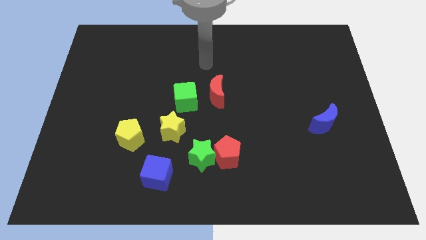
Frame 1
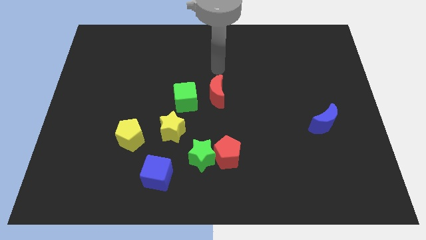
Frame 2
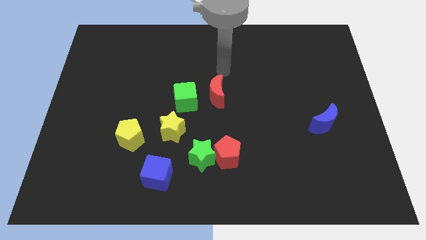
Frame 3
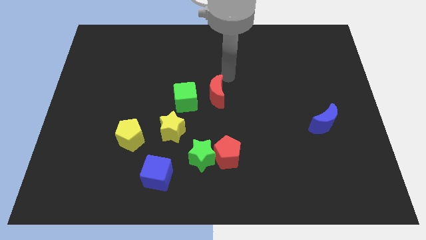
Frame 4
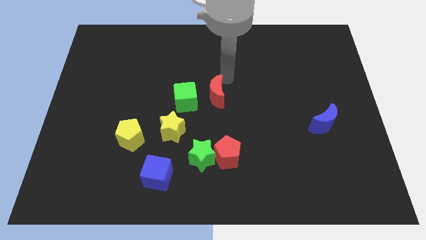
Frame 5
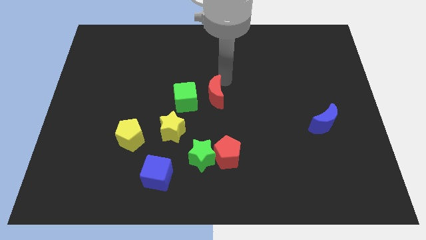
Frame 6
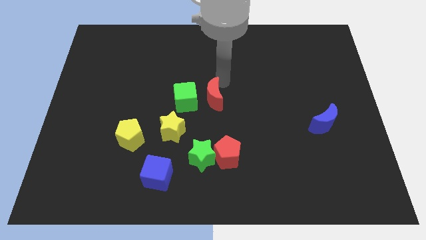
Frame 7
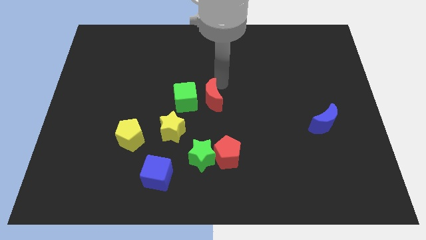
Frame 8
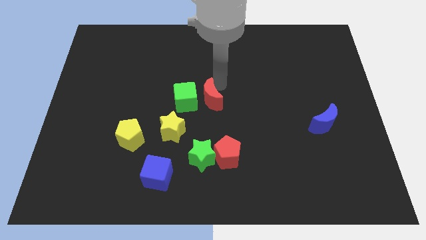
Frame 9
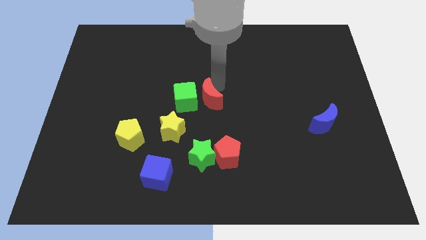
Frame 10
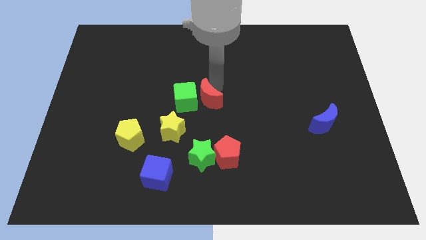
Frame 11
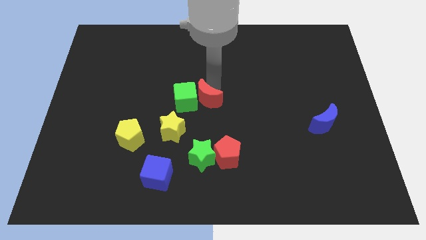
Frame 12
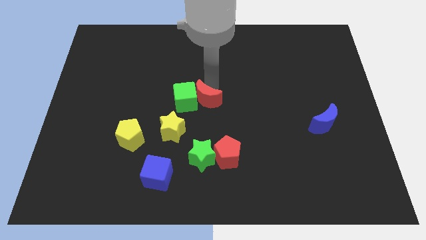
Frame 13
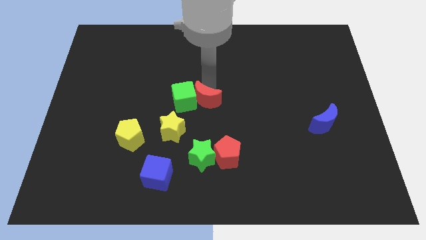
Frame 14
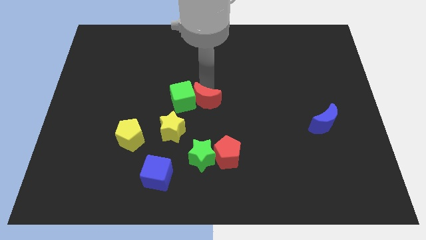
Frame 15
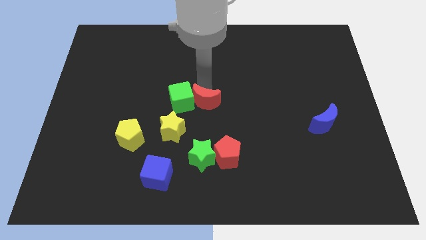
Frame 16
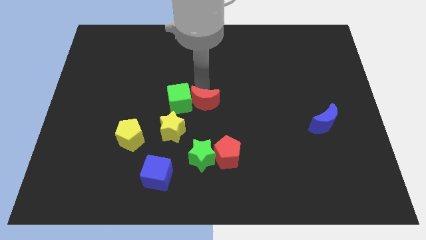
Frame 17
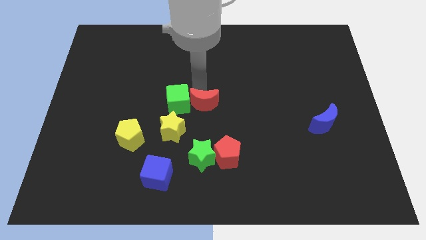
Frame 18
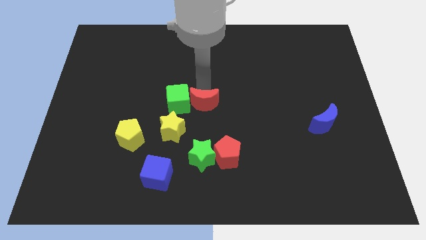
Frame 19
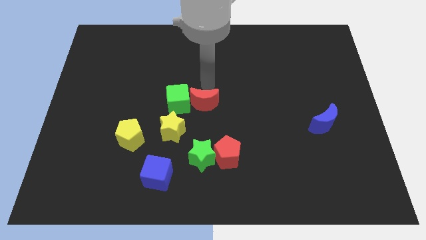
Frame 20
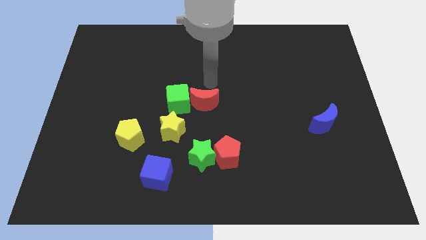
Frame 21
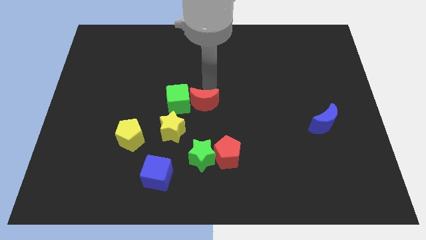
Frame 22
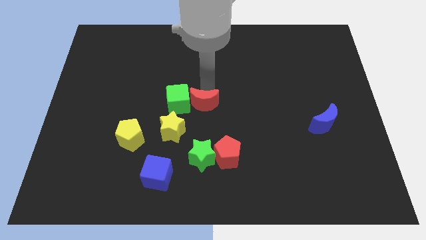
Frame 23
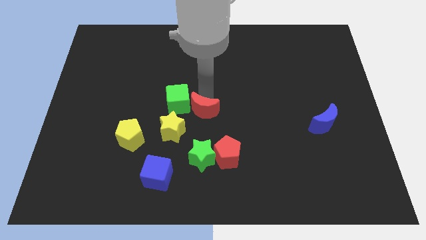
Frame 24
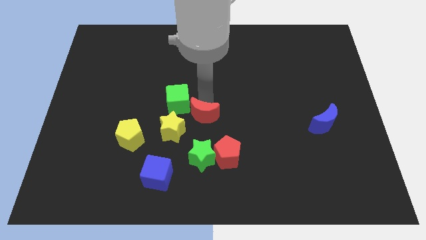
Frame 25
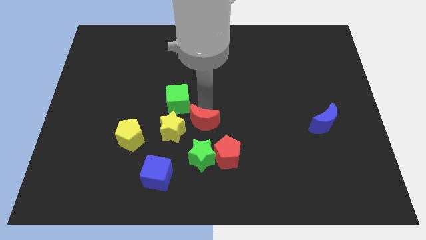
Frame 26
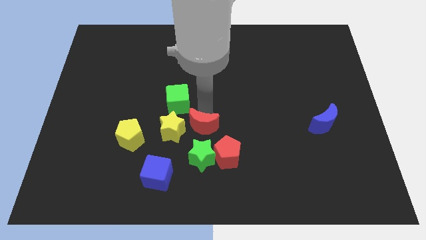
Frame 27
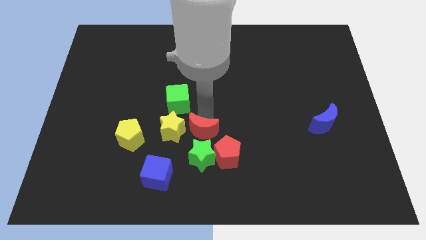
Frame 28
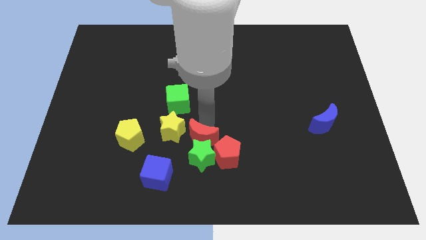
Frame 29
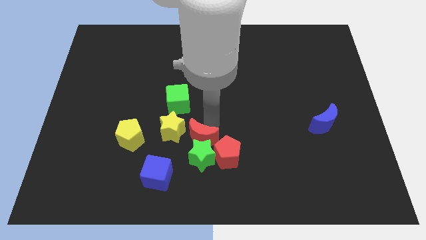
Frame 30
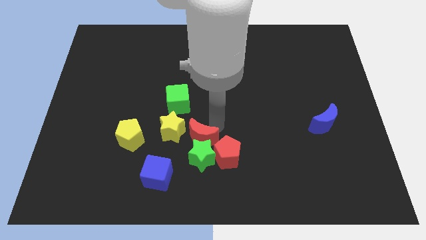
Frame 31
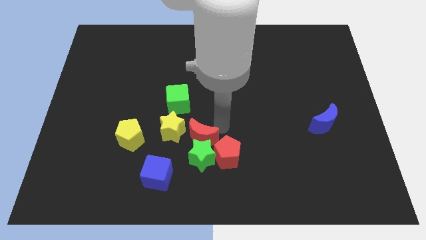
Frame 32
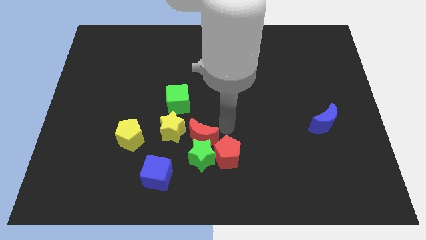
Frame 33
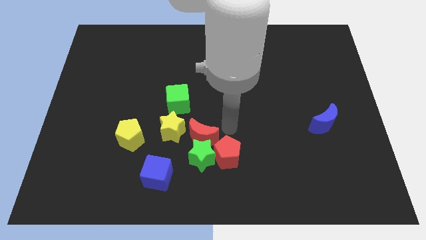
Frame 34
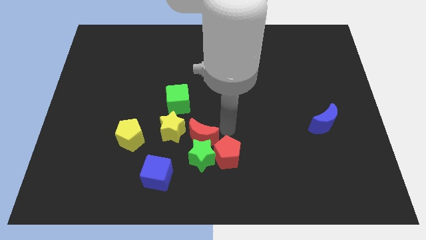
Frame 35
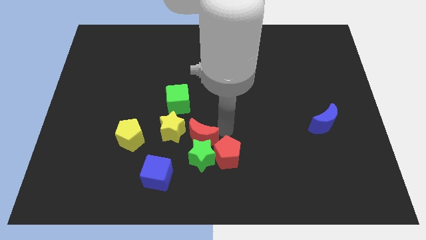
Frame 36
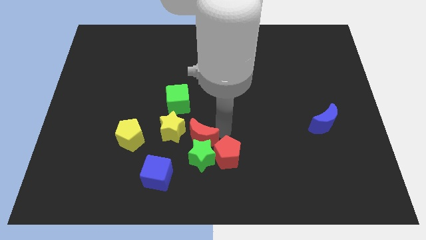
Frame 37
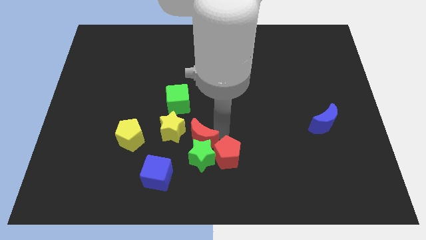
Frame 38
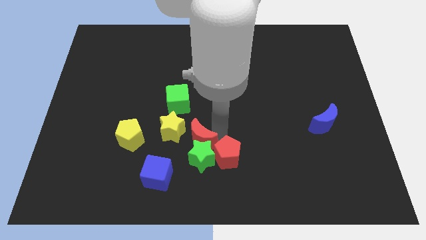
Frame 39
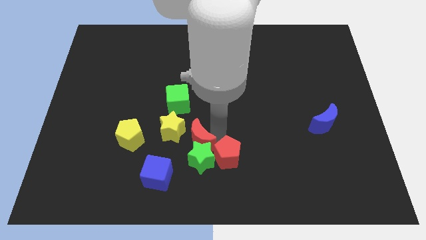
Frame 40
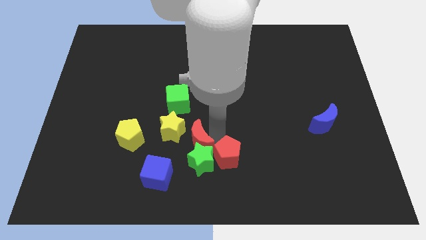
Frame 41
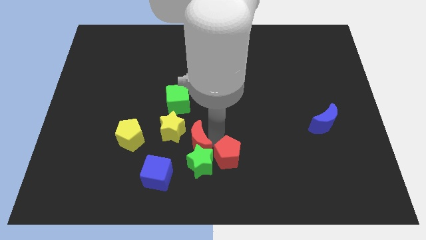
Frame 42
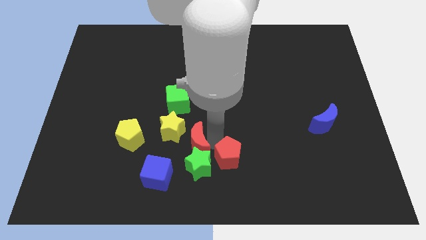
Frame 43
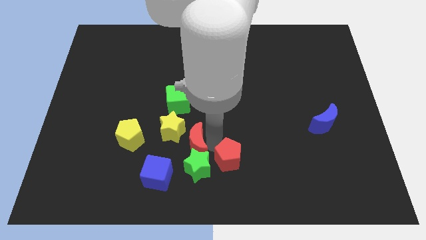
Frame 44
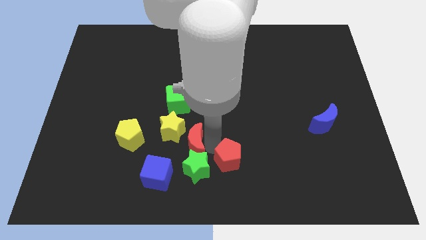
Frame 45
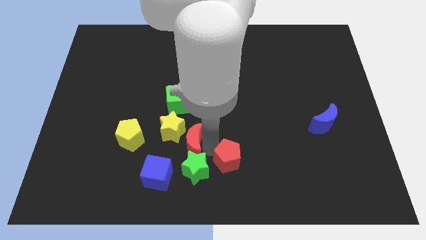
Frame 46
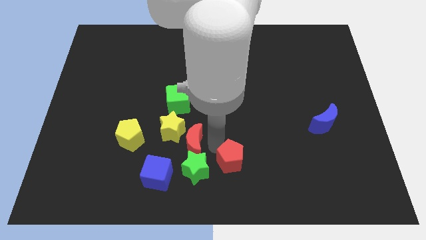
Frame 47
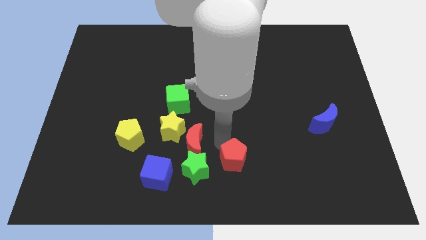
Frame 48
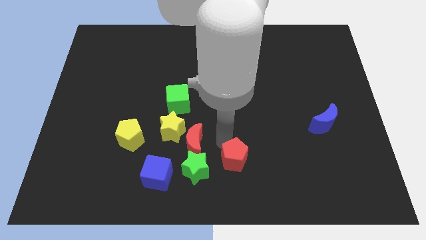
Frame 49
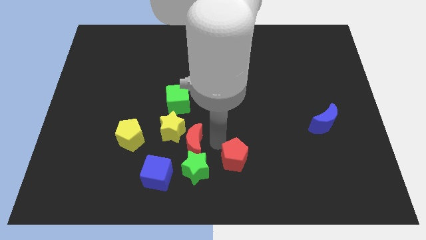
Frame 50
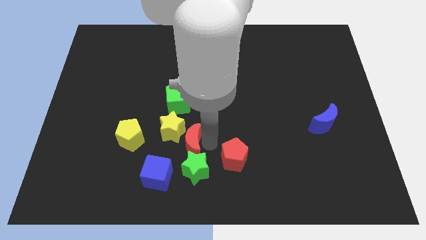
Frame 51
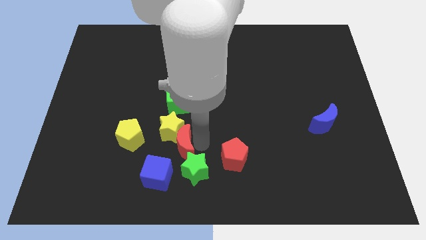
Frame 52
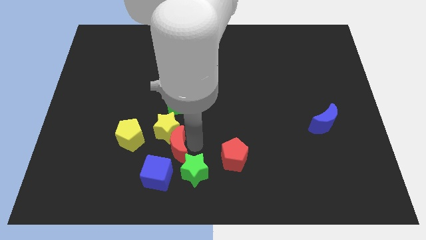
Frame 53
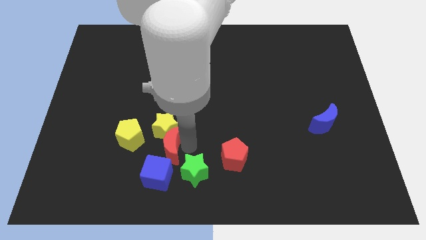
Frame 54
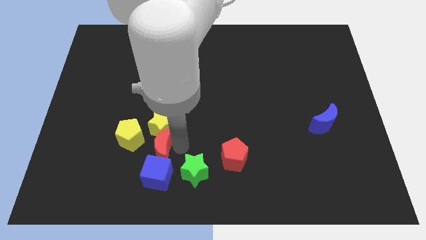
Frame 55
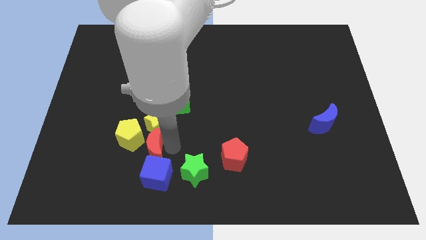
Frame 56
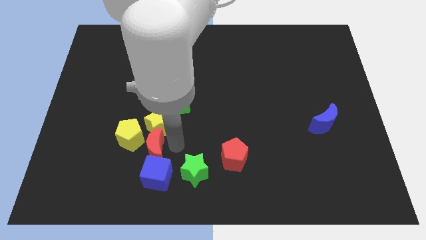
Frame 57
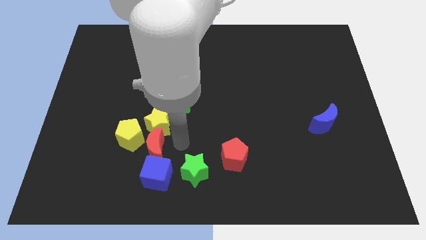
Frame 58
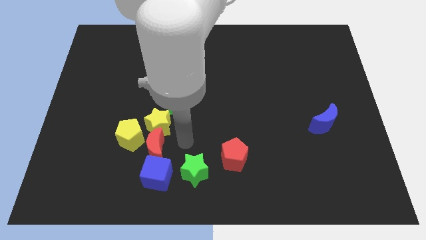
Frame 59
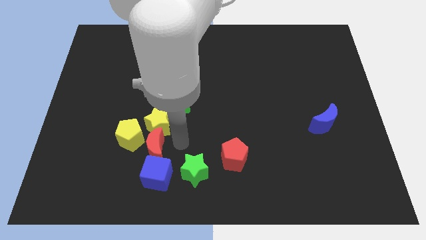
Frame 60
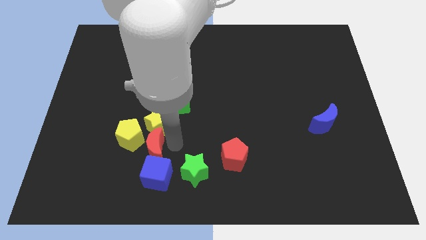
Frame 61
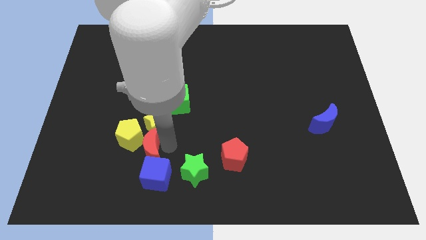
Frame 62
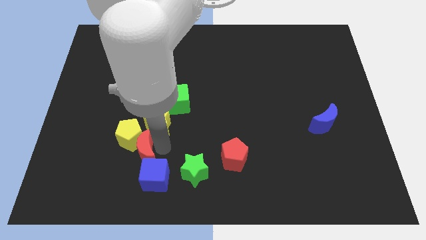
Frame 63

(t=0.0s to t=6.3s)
put the red moon to the bottom of the yellow pentagon

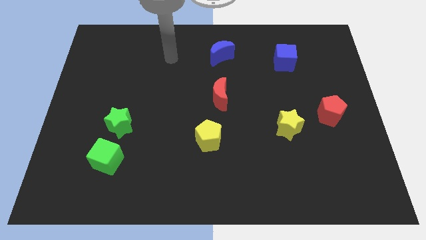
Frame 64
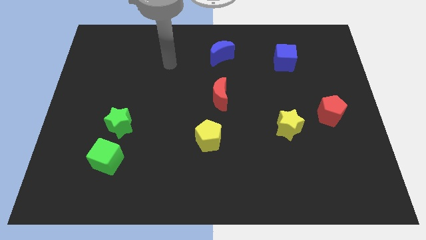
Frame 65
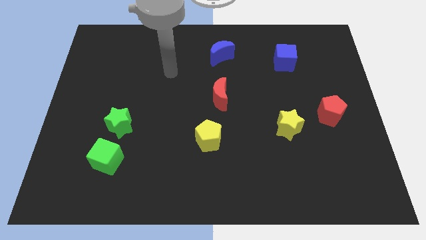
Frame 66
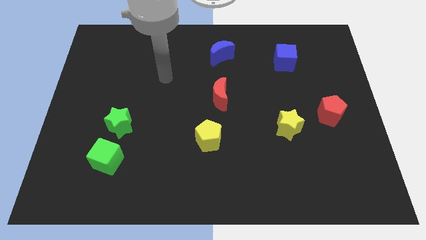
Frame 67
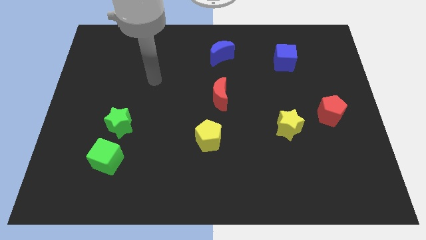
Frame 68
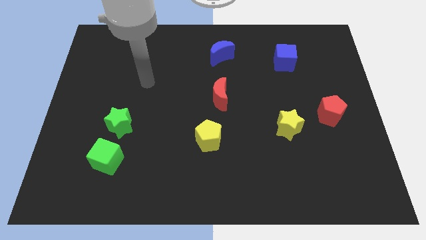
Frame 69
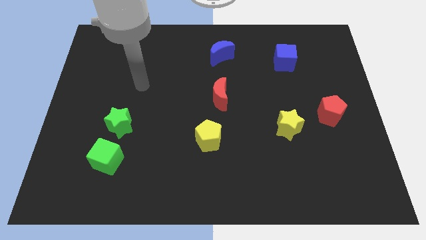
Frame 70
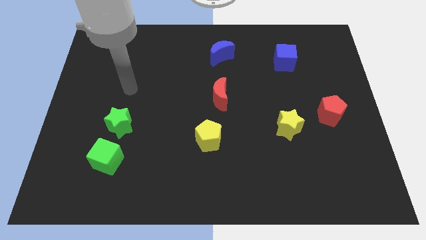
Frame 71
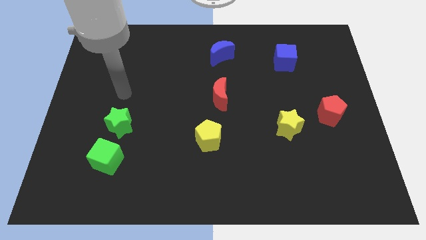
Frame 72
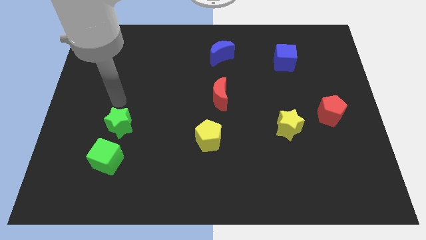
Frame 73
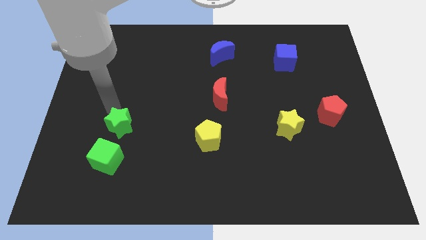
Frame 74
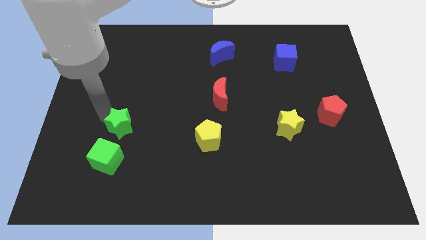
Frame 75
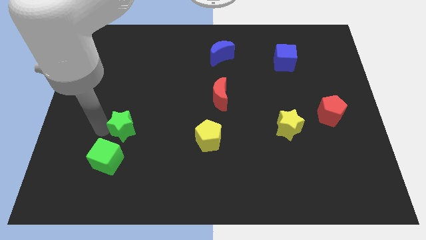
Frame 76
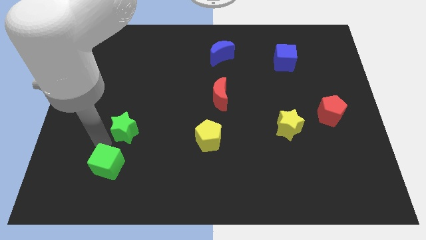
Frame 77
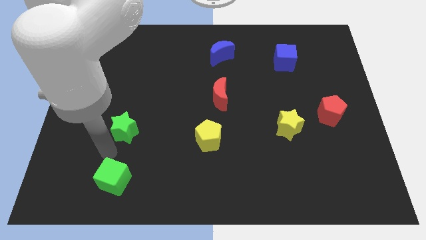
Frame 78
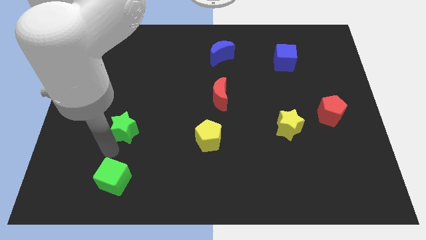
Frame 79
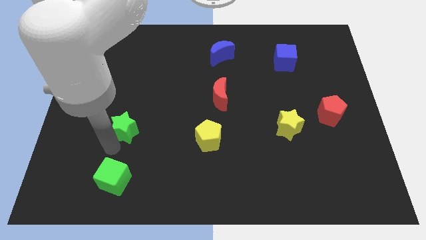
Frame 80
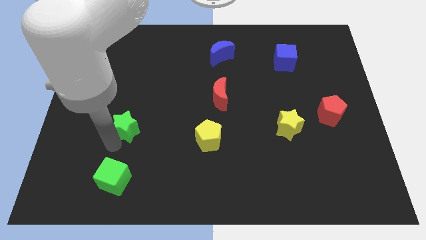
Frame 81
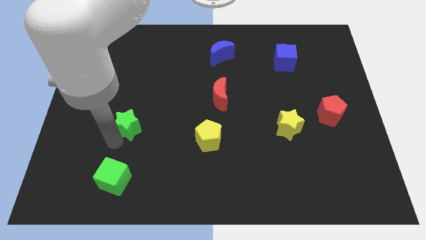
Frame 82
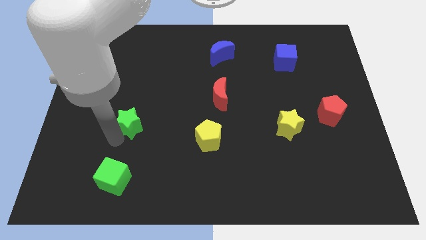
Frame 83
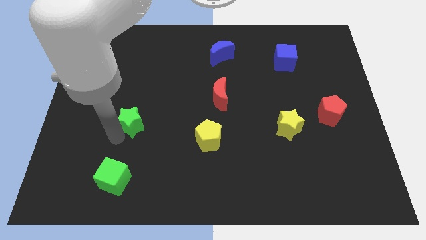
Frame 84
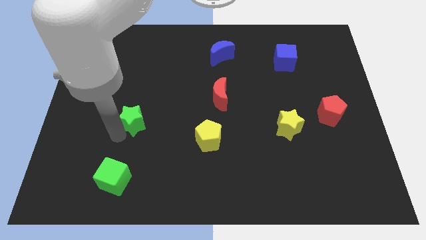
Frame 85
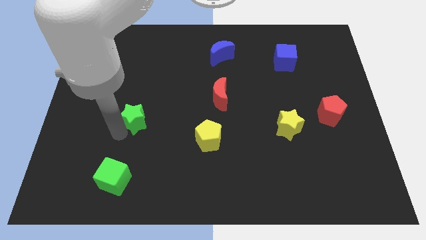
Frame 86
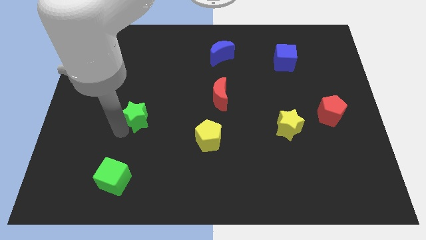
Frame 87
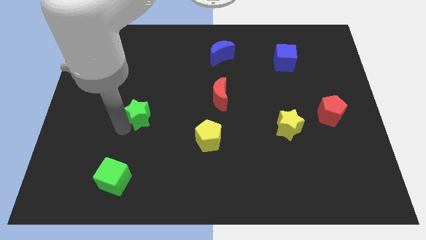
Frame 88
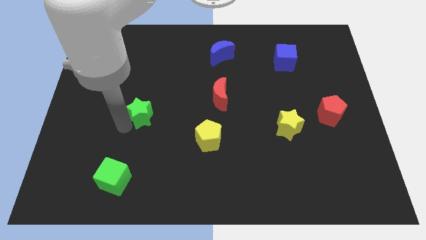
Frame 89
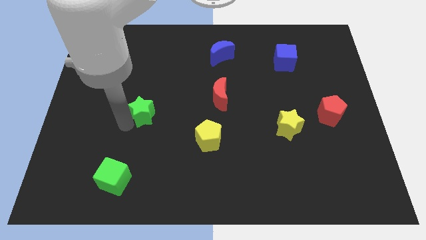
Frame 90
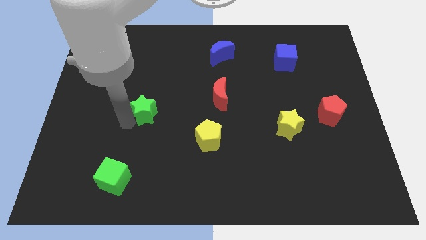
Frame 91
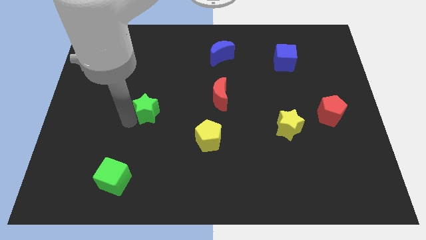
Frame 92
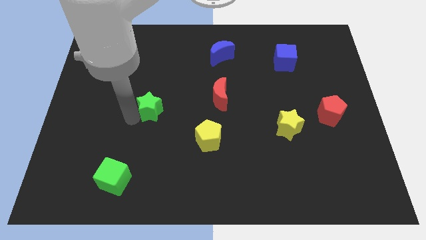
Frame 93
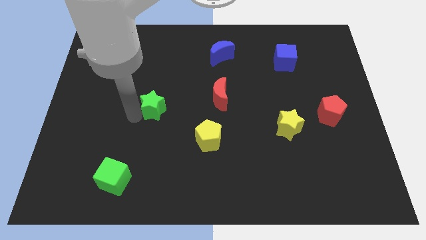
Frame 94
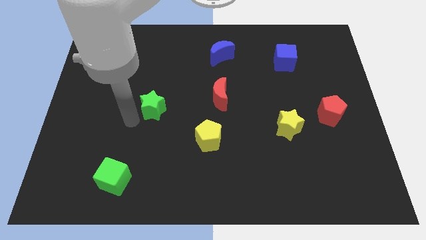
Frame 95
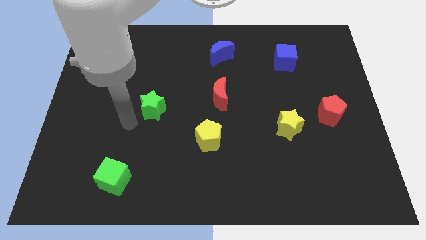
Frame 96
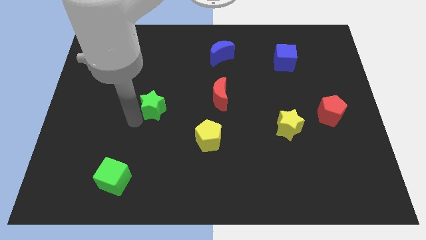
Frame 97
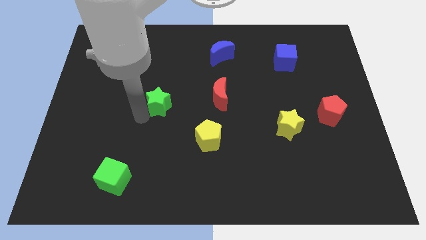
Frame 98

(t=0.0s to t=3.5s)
push the green star left of the red moon
